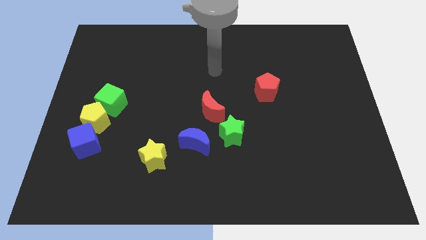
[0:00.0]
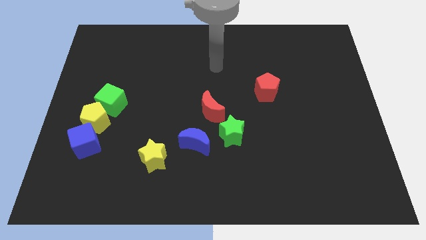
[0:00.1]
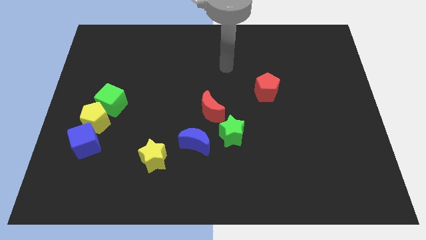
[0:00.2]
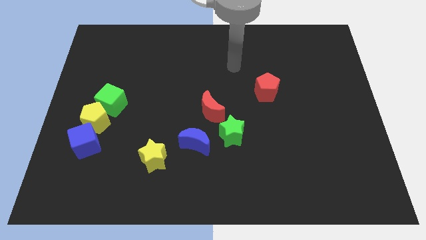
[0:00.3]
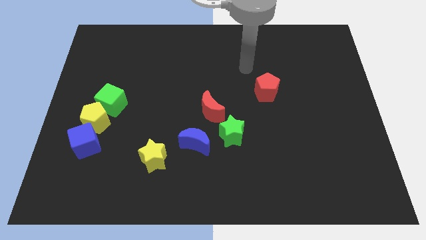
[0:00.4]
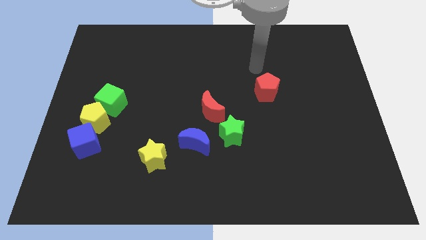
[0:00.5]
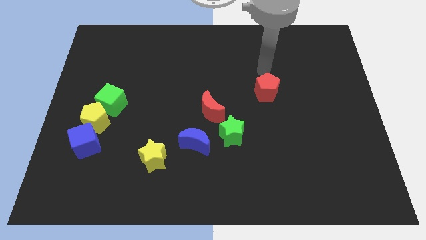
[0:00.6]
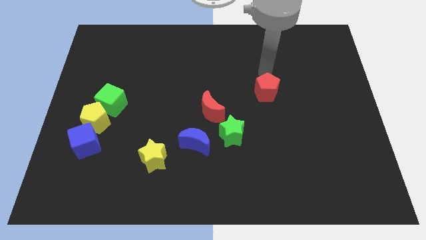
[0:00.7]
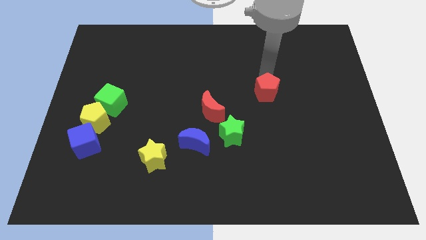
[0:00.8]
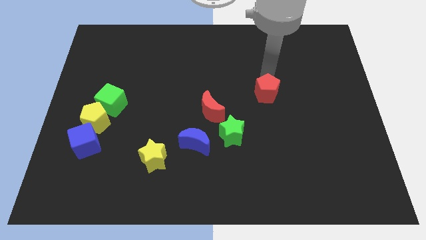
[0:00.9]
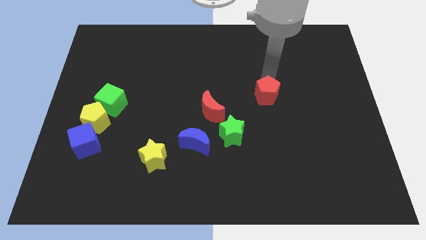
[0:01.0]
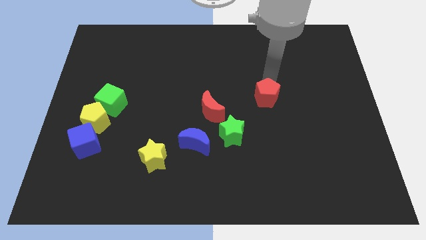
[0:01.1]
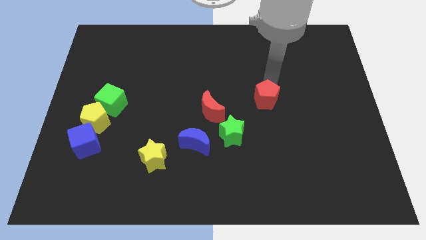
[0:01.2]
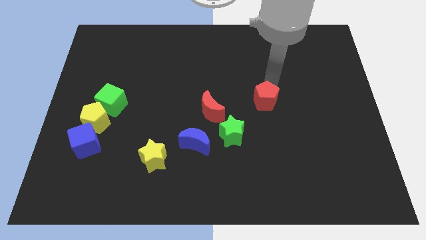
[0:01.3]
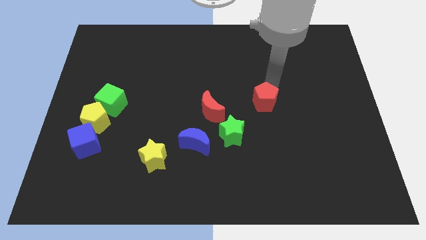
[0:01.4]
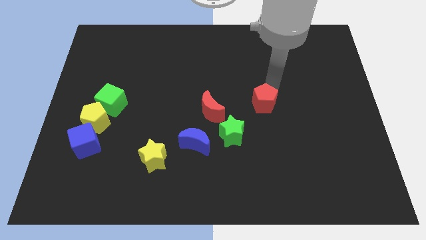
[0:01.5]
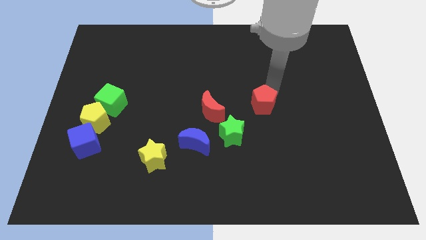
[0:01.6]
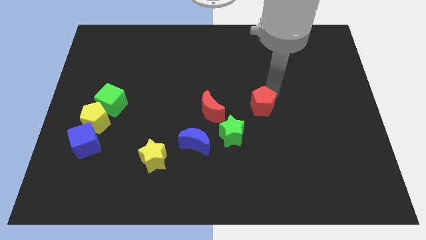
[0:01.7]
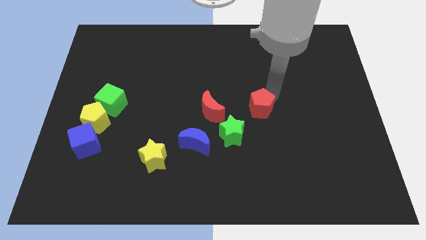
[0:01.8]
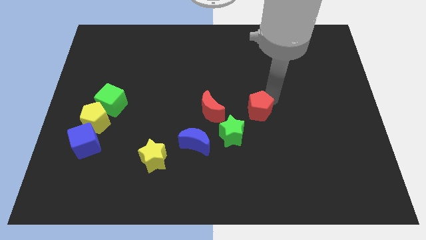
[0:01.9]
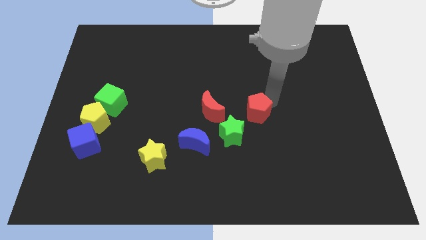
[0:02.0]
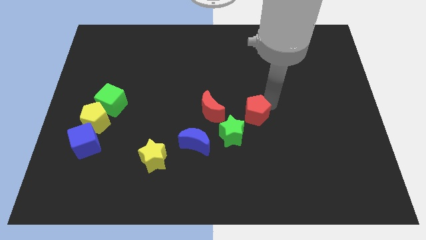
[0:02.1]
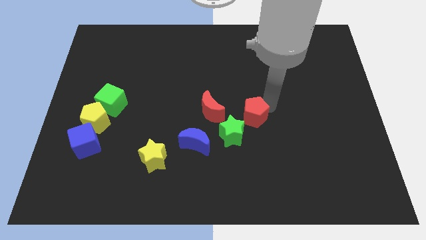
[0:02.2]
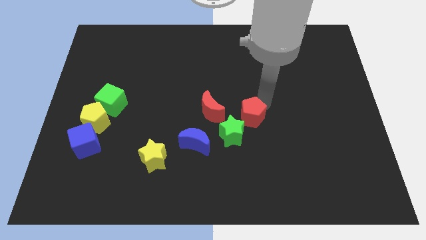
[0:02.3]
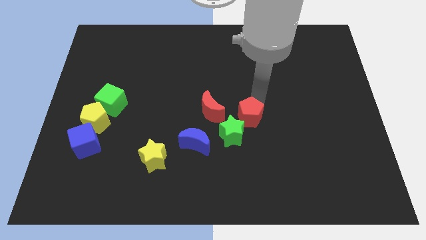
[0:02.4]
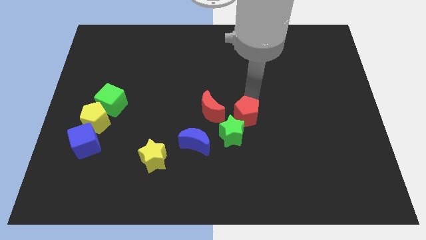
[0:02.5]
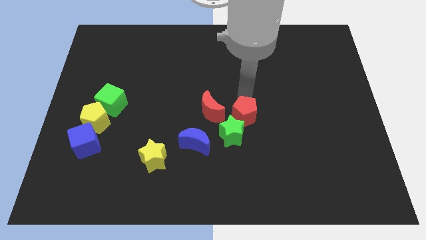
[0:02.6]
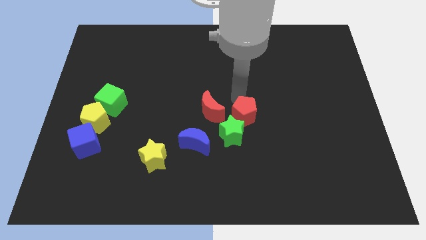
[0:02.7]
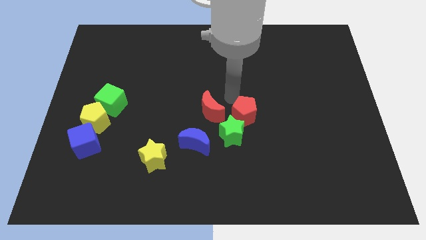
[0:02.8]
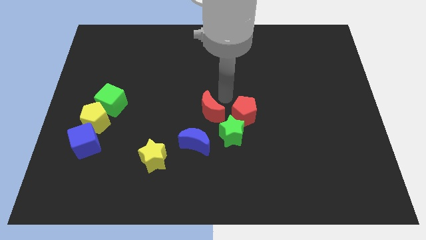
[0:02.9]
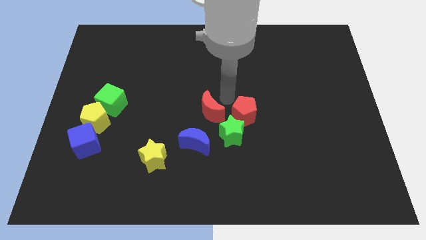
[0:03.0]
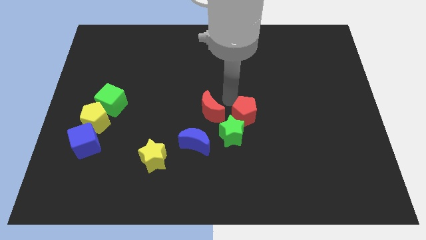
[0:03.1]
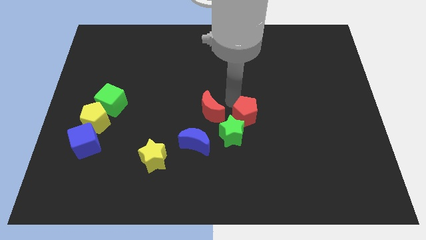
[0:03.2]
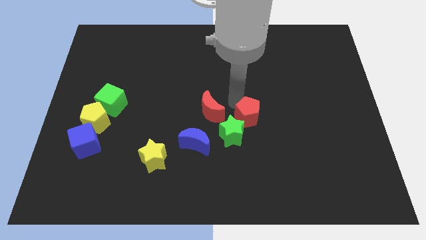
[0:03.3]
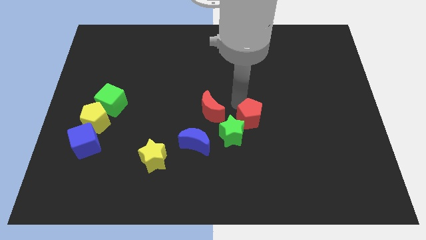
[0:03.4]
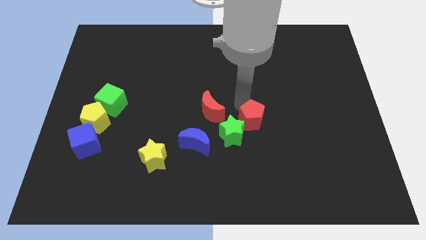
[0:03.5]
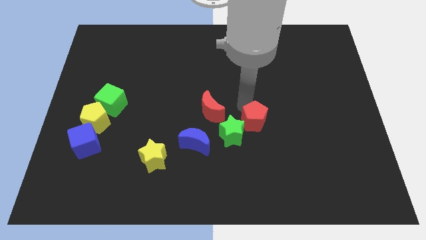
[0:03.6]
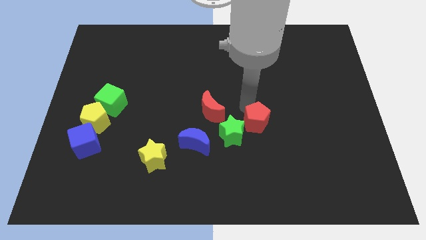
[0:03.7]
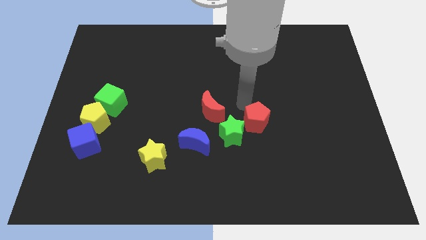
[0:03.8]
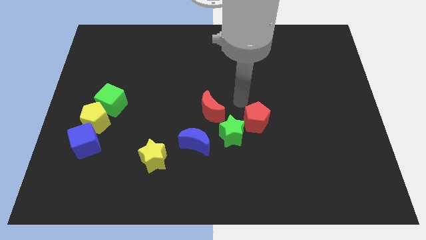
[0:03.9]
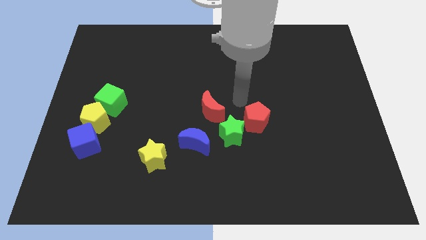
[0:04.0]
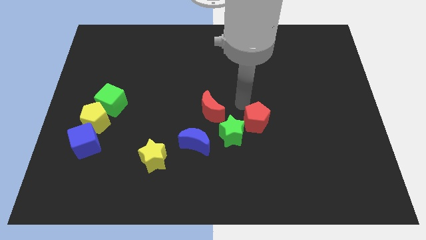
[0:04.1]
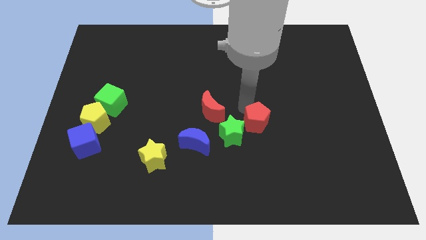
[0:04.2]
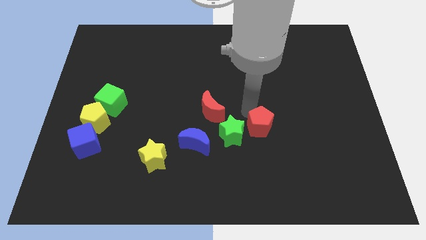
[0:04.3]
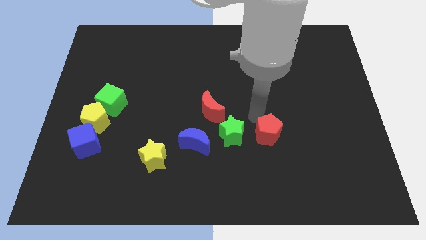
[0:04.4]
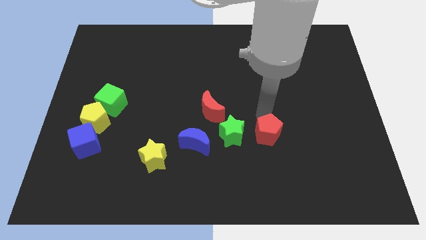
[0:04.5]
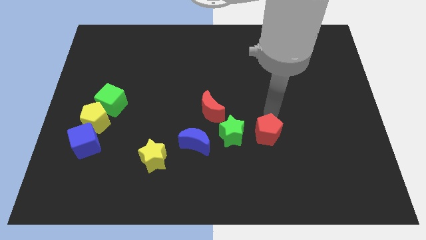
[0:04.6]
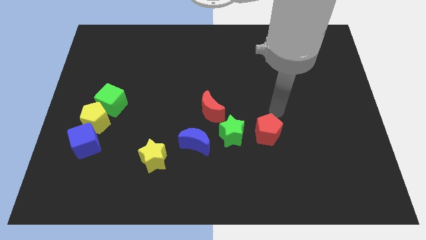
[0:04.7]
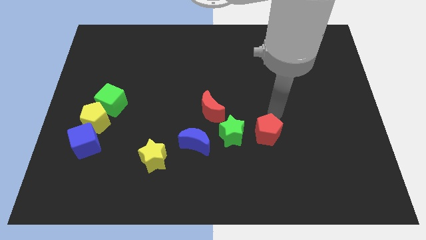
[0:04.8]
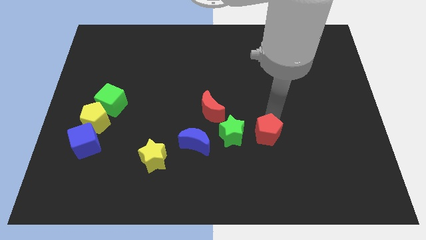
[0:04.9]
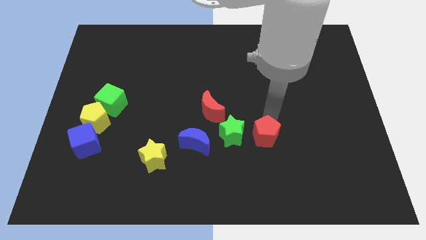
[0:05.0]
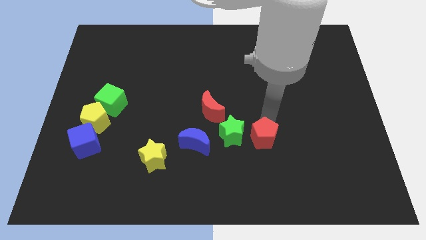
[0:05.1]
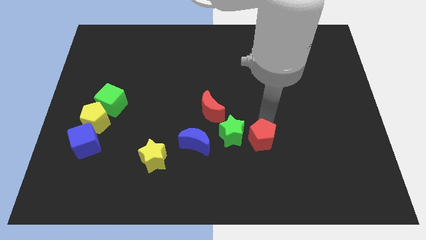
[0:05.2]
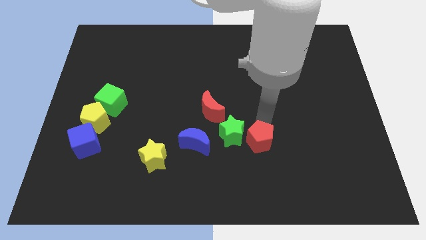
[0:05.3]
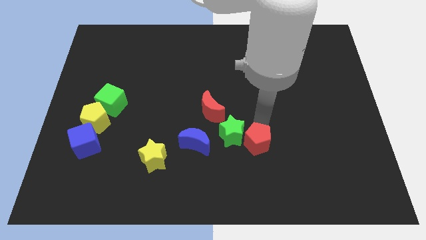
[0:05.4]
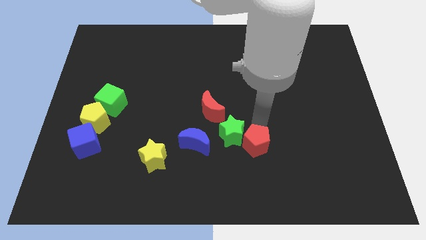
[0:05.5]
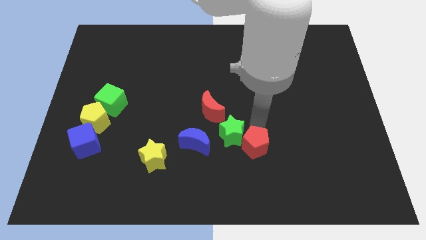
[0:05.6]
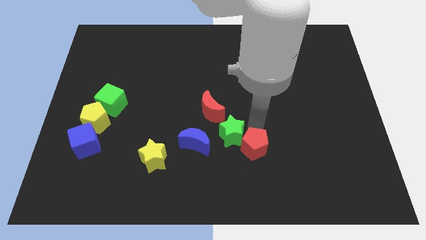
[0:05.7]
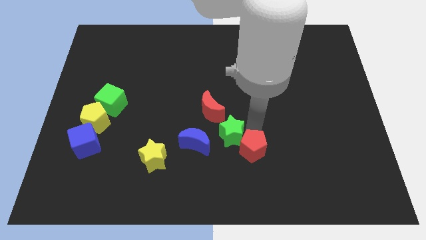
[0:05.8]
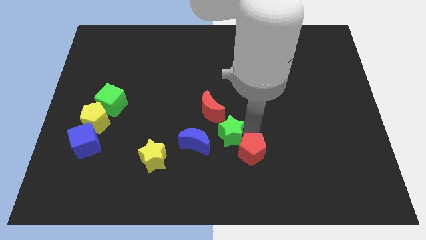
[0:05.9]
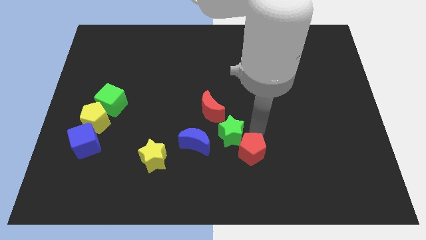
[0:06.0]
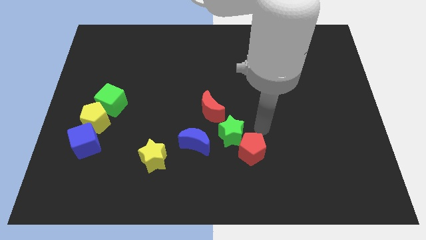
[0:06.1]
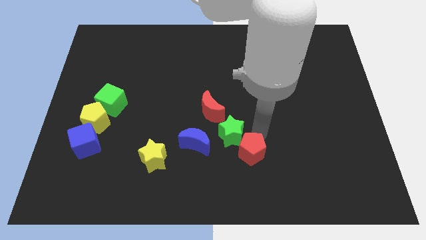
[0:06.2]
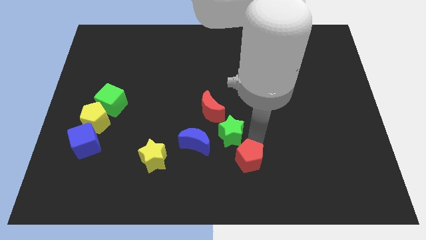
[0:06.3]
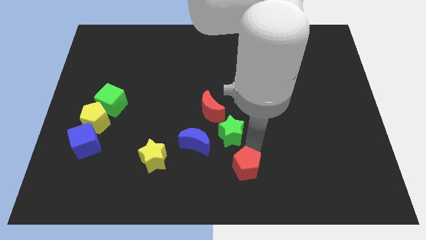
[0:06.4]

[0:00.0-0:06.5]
move the red pentagon to the bottom side

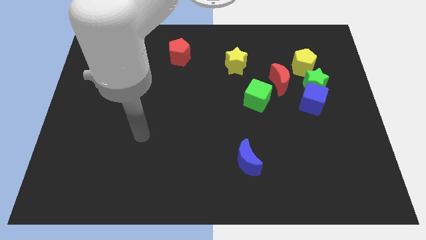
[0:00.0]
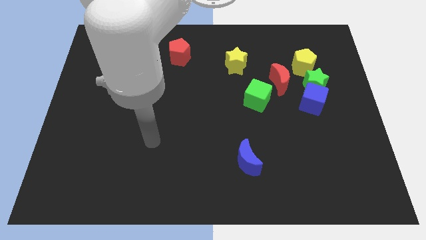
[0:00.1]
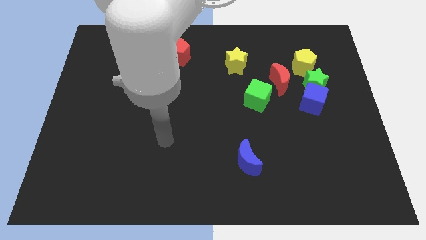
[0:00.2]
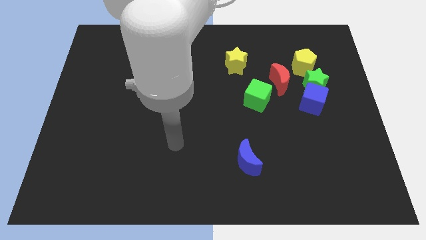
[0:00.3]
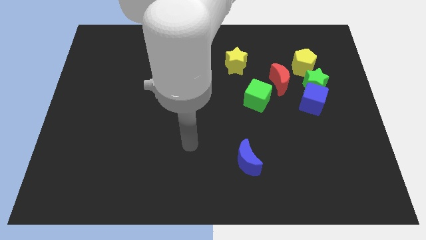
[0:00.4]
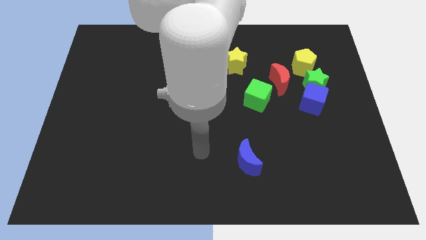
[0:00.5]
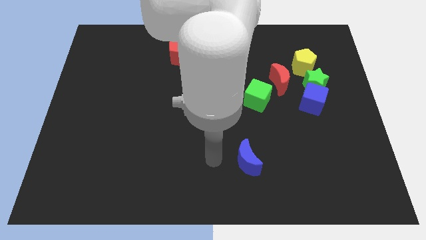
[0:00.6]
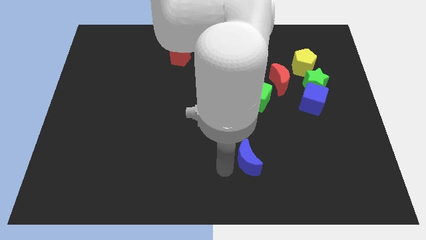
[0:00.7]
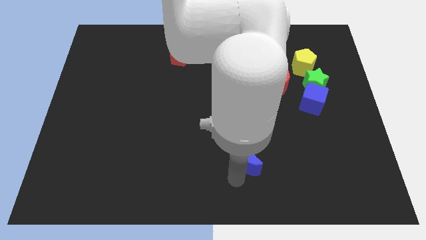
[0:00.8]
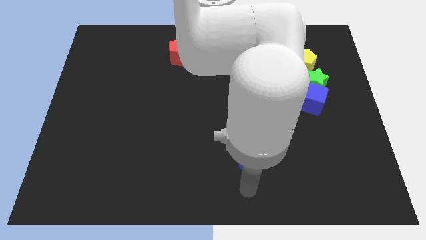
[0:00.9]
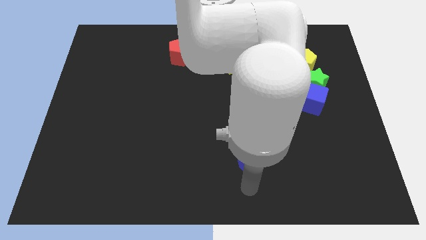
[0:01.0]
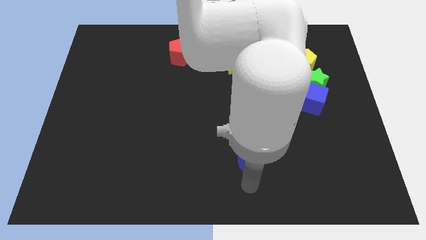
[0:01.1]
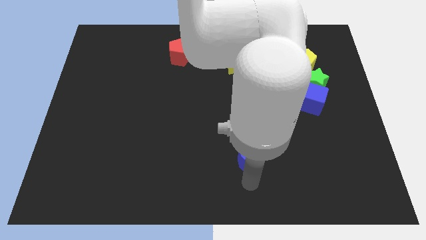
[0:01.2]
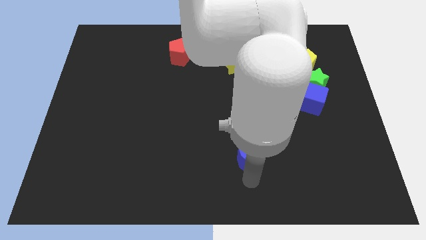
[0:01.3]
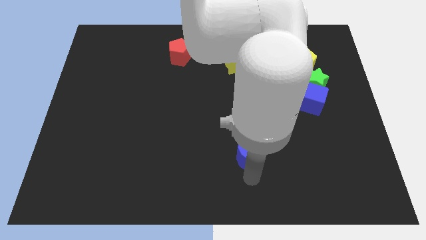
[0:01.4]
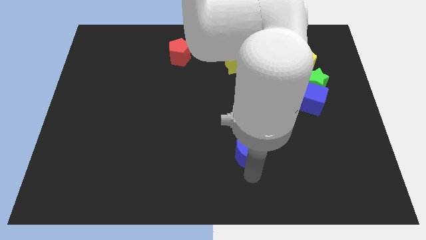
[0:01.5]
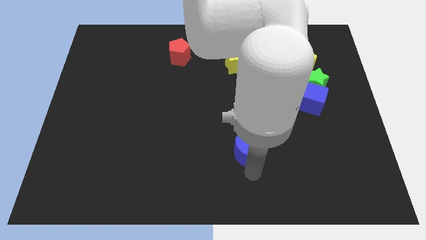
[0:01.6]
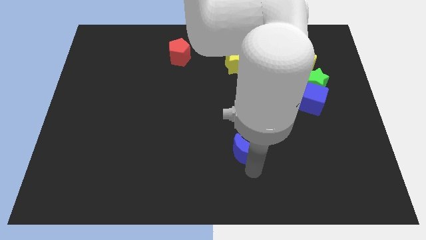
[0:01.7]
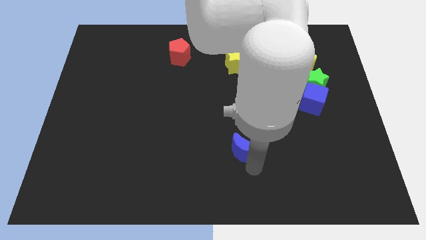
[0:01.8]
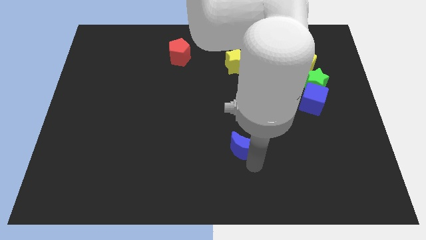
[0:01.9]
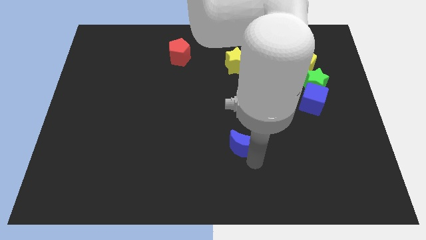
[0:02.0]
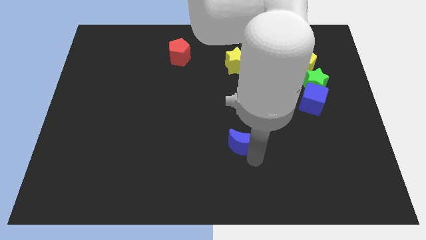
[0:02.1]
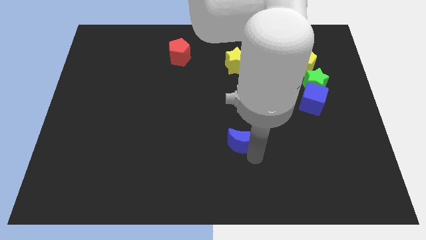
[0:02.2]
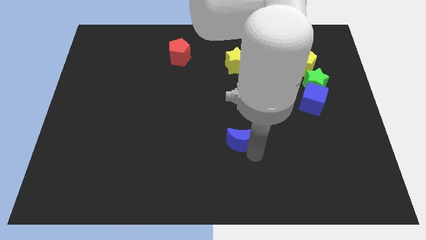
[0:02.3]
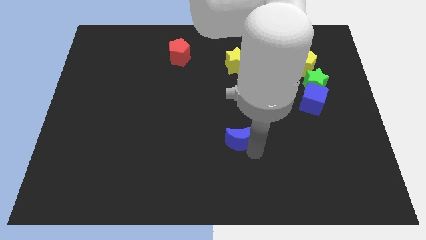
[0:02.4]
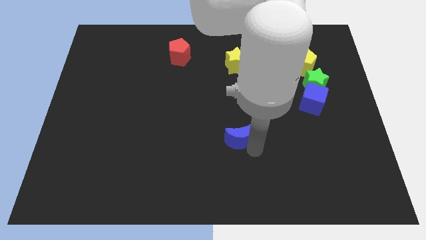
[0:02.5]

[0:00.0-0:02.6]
move the blue moon to the center of the board
